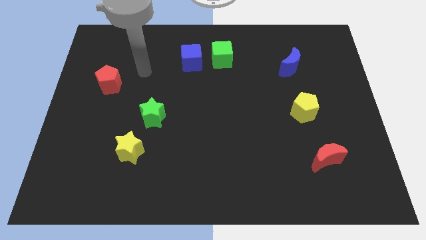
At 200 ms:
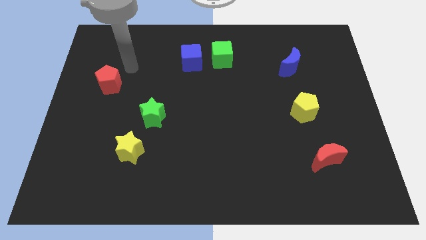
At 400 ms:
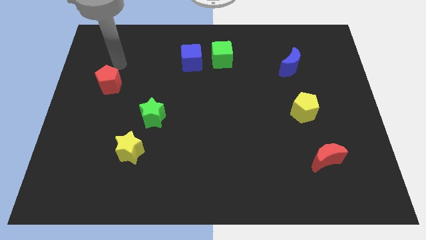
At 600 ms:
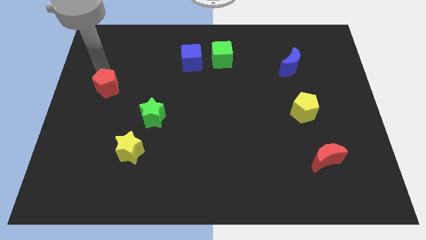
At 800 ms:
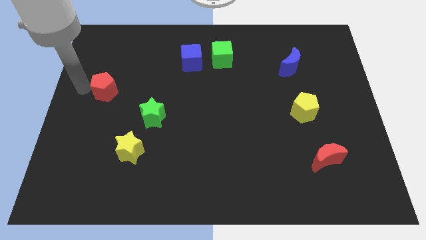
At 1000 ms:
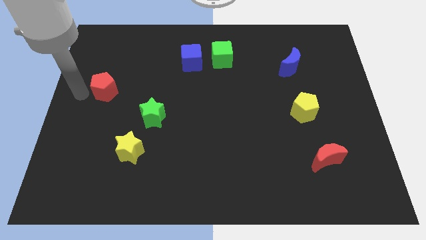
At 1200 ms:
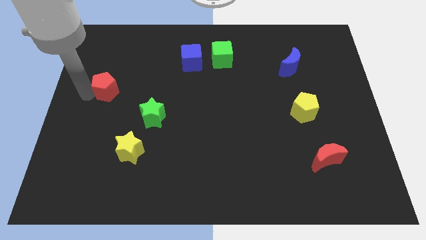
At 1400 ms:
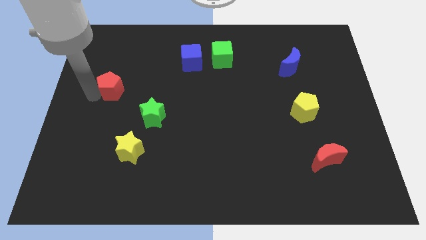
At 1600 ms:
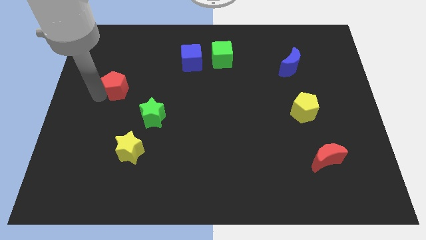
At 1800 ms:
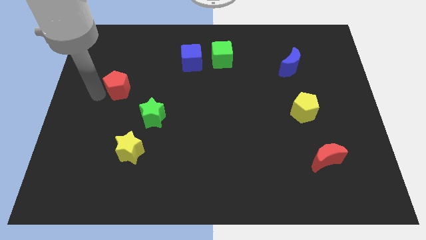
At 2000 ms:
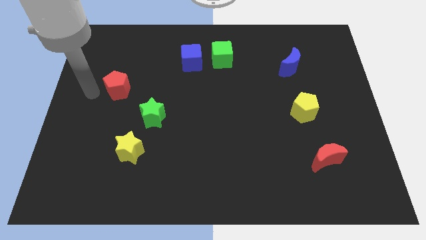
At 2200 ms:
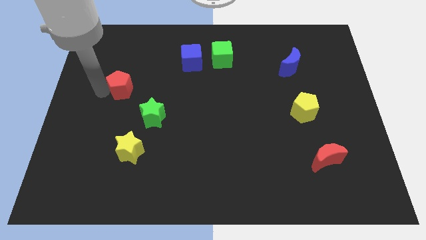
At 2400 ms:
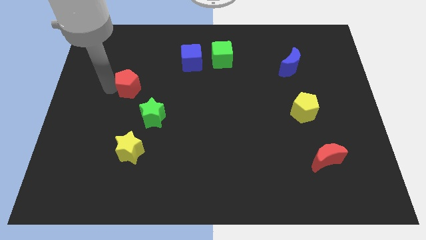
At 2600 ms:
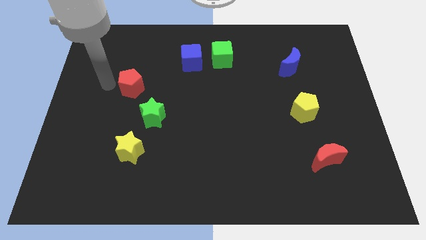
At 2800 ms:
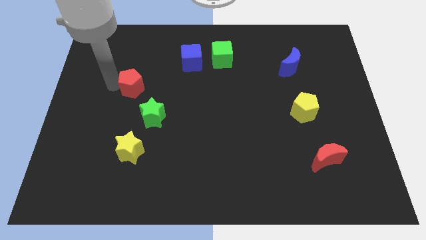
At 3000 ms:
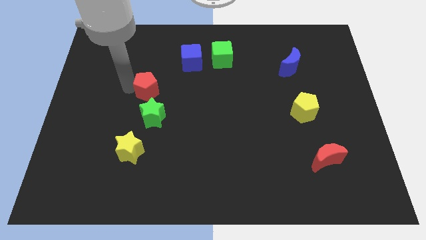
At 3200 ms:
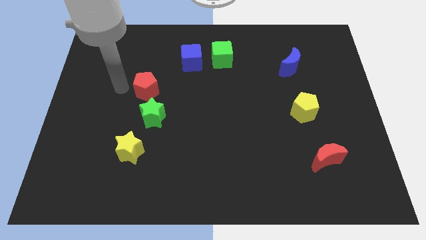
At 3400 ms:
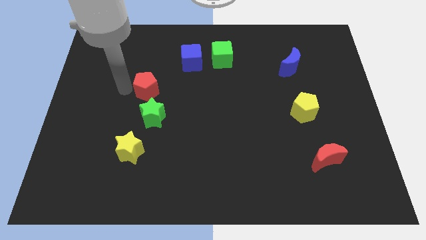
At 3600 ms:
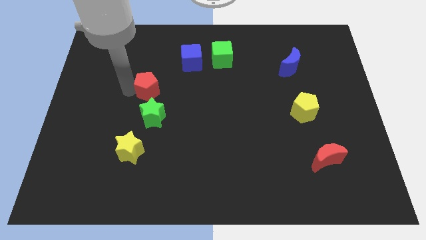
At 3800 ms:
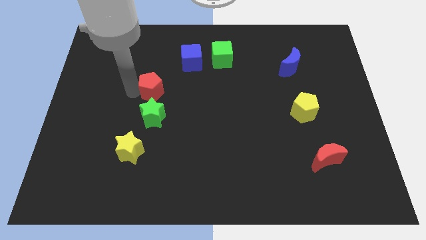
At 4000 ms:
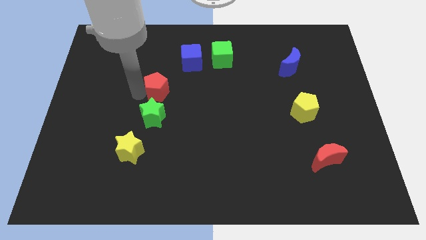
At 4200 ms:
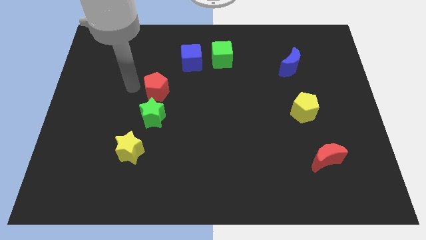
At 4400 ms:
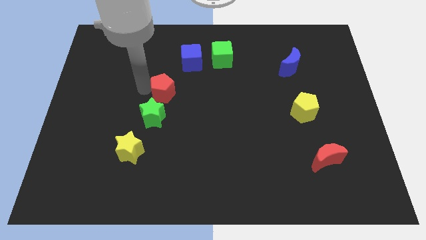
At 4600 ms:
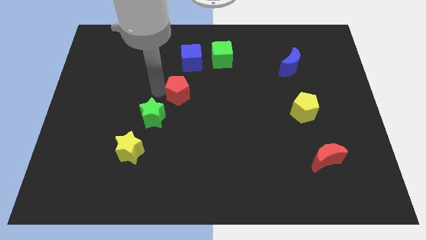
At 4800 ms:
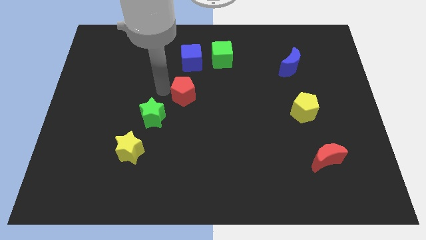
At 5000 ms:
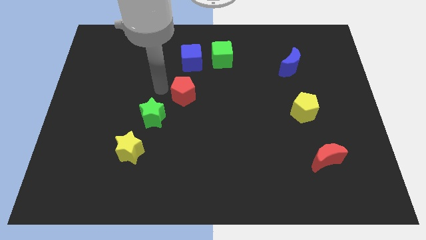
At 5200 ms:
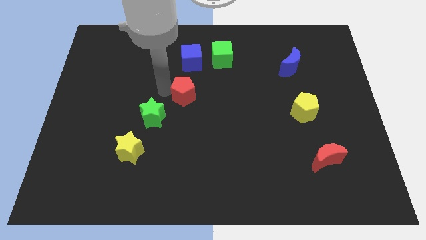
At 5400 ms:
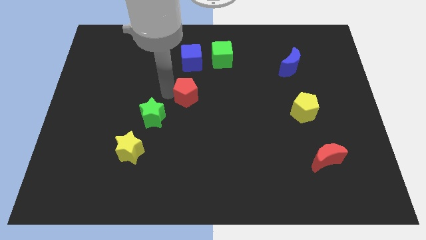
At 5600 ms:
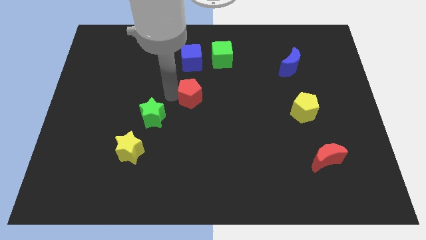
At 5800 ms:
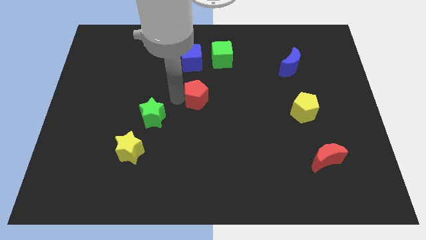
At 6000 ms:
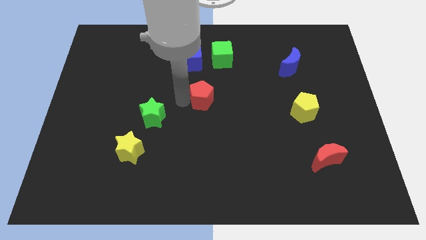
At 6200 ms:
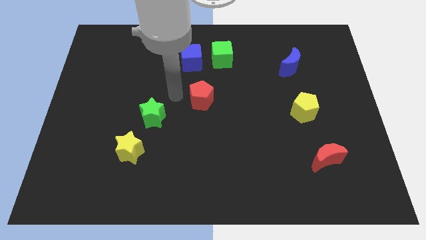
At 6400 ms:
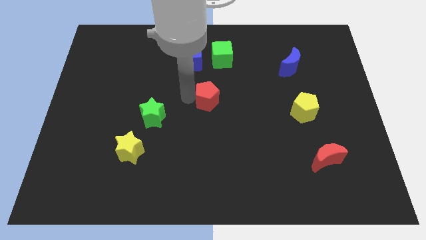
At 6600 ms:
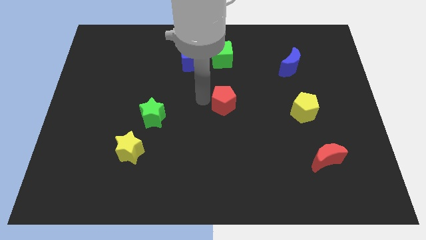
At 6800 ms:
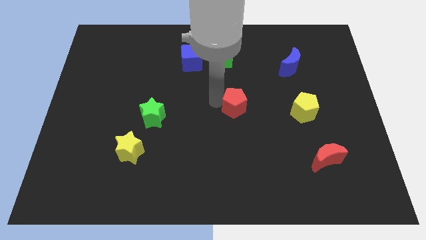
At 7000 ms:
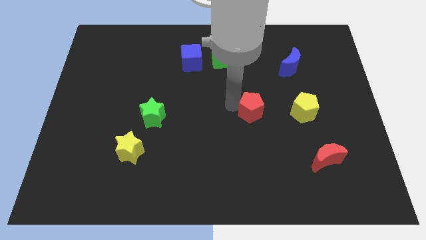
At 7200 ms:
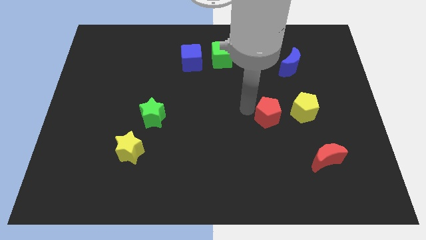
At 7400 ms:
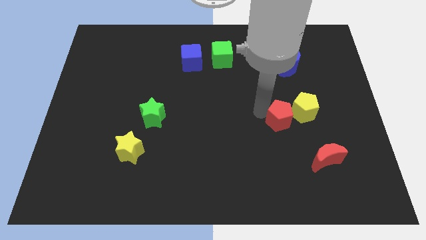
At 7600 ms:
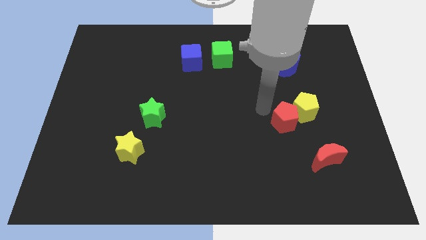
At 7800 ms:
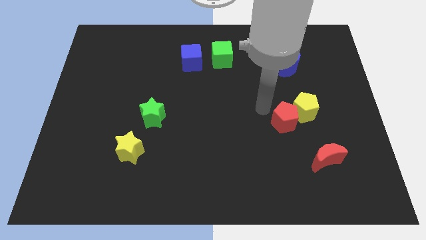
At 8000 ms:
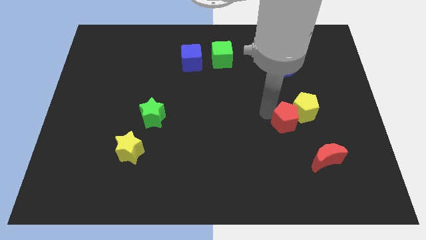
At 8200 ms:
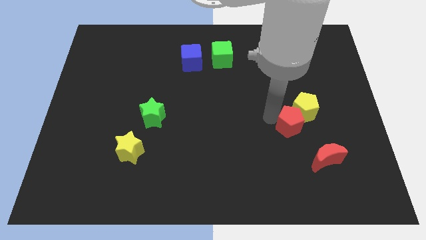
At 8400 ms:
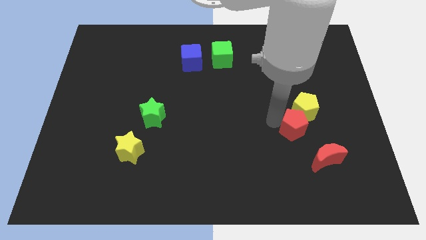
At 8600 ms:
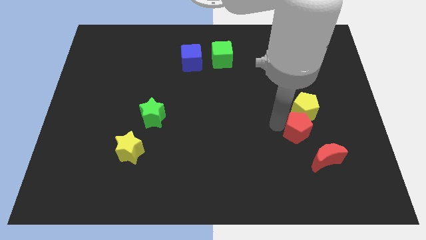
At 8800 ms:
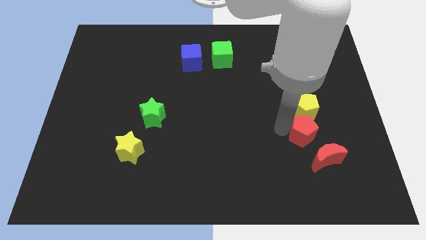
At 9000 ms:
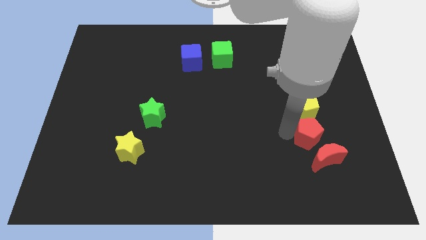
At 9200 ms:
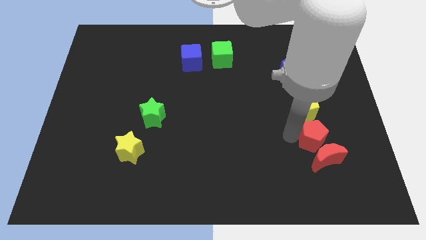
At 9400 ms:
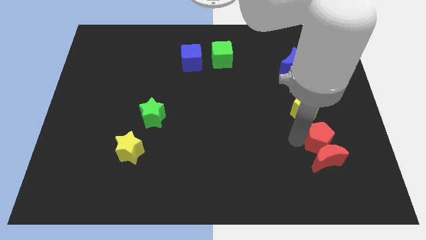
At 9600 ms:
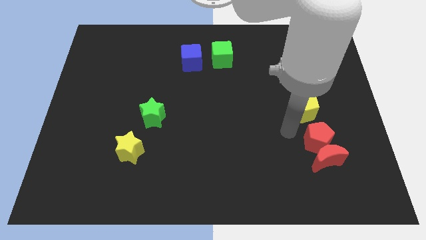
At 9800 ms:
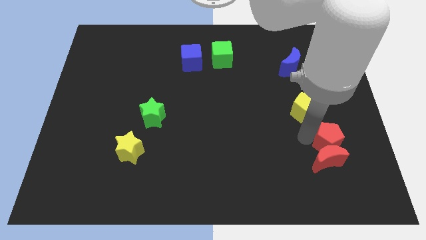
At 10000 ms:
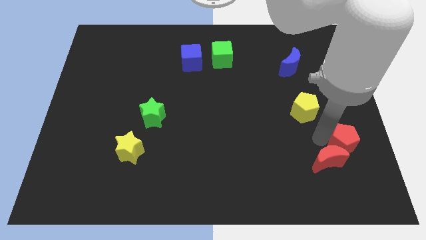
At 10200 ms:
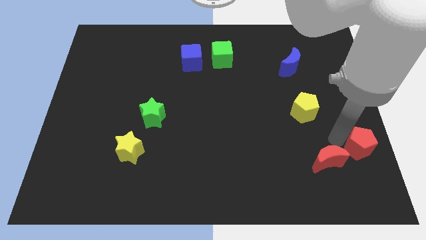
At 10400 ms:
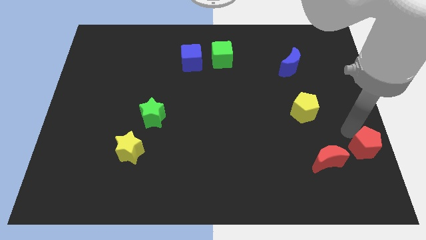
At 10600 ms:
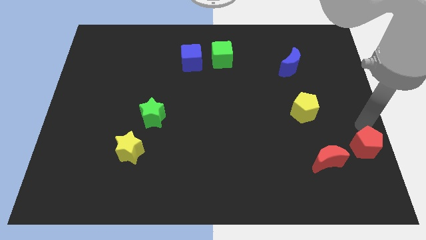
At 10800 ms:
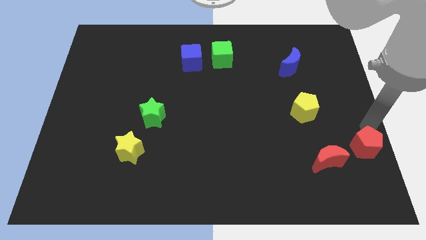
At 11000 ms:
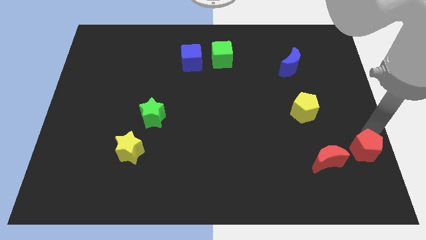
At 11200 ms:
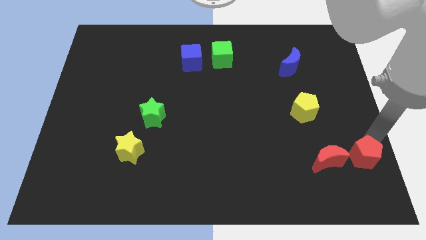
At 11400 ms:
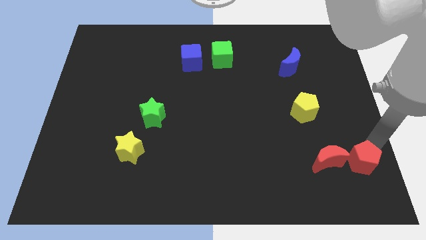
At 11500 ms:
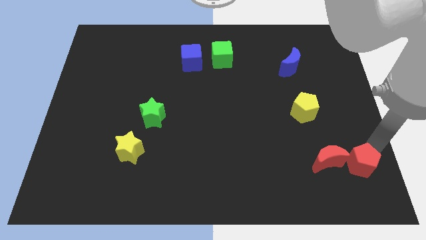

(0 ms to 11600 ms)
slide the red pentagon diagonally down and to the right of the red moon

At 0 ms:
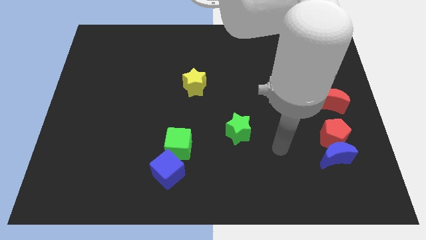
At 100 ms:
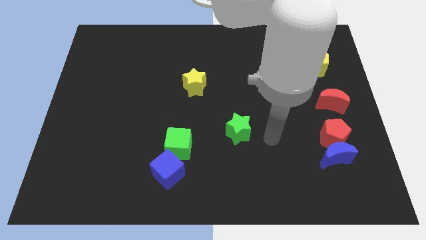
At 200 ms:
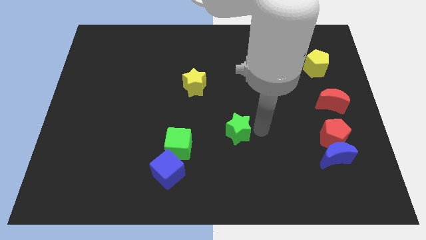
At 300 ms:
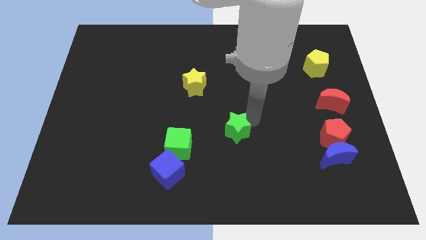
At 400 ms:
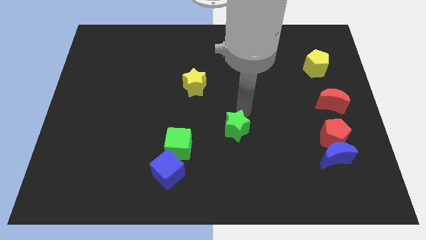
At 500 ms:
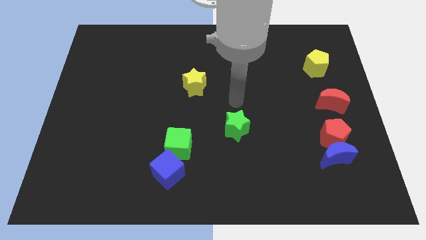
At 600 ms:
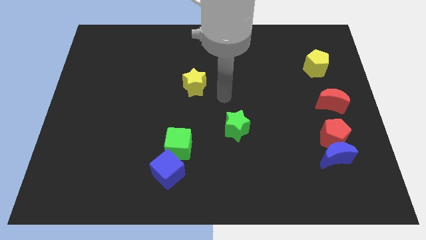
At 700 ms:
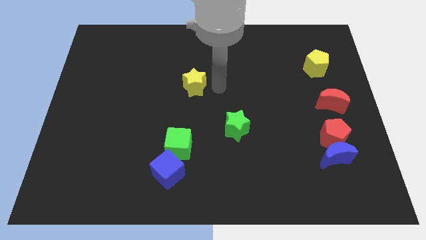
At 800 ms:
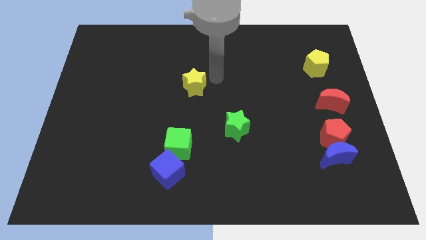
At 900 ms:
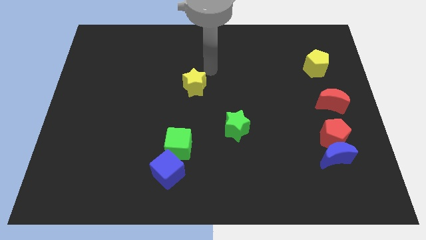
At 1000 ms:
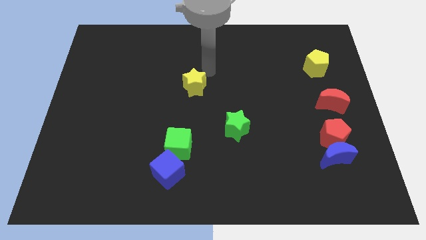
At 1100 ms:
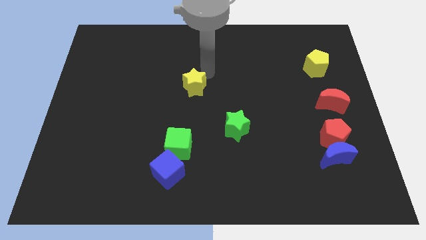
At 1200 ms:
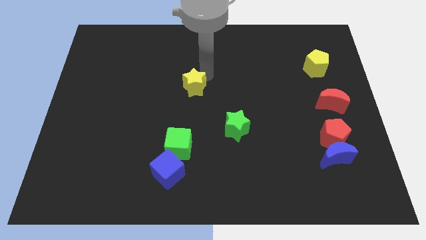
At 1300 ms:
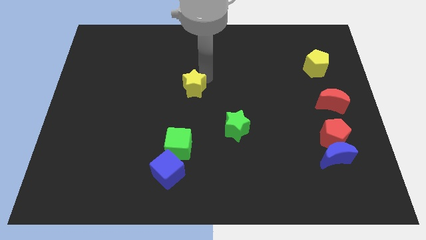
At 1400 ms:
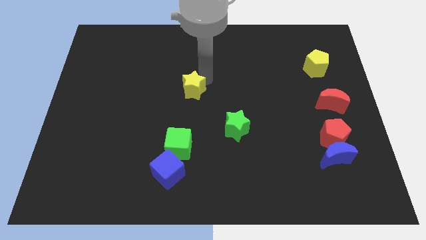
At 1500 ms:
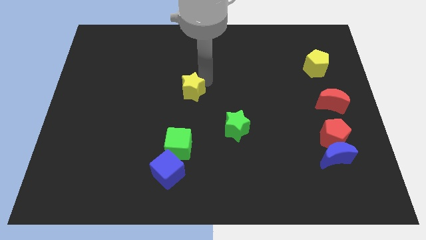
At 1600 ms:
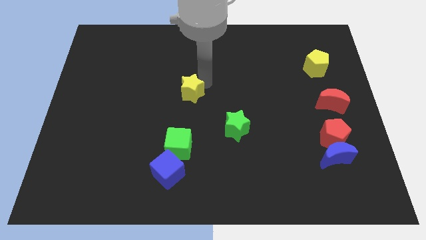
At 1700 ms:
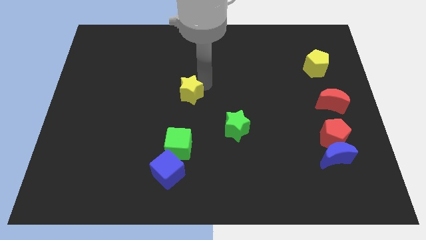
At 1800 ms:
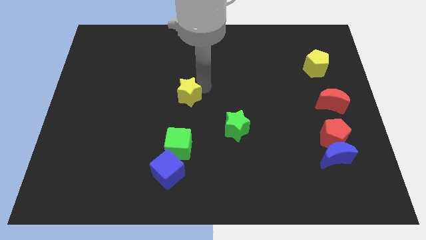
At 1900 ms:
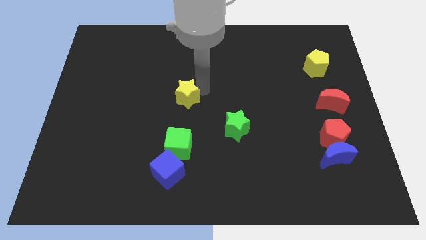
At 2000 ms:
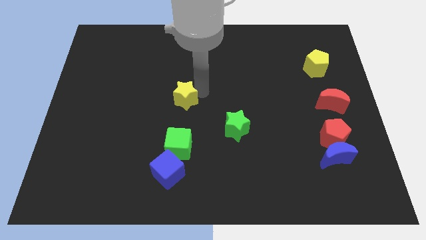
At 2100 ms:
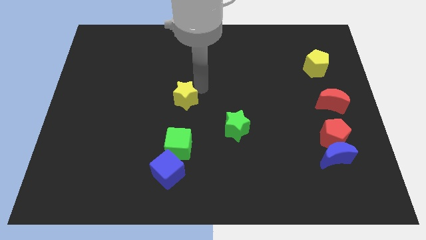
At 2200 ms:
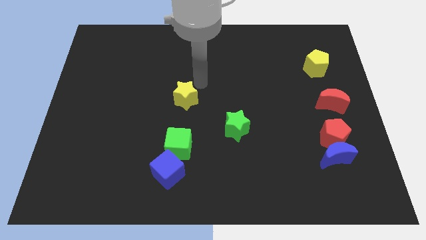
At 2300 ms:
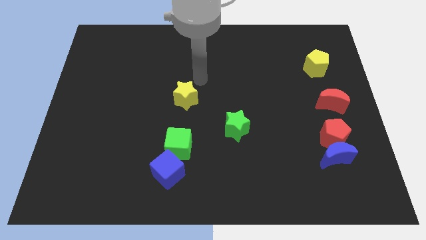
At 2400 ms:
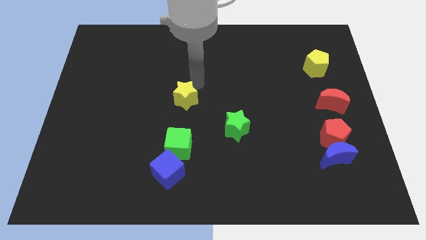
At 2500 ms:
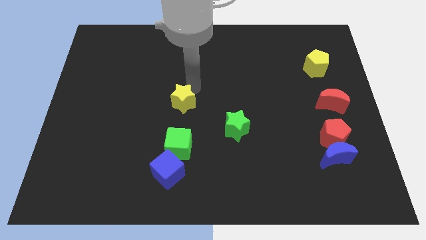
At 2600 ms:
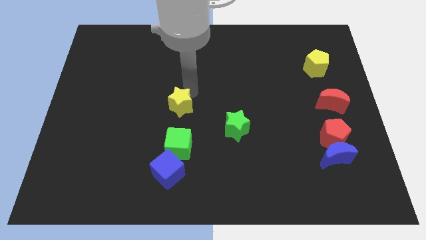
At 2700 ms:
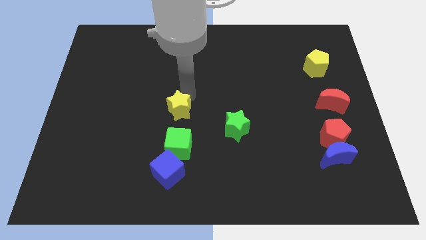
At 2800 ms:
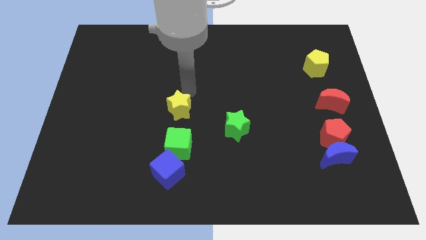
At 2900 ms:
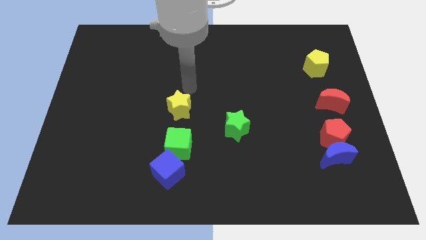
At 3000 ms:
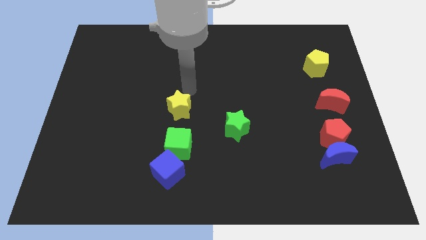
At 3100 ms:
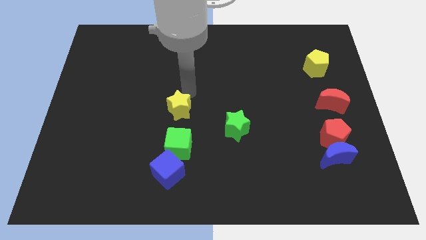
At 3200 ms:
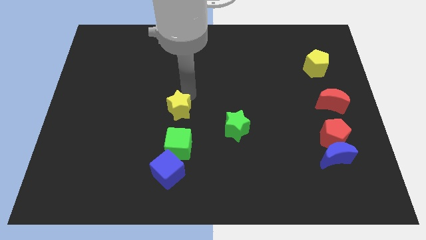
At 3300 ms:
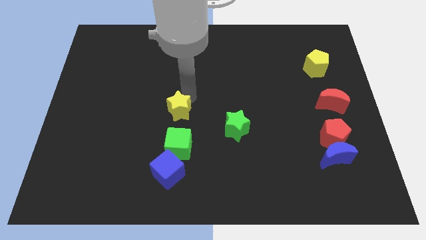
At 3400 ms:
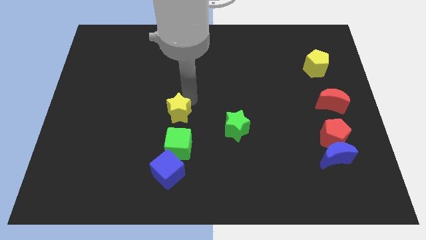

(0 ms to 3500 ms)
move the yellow star to the top side of the blue cube
